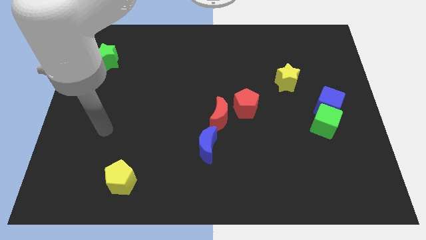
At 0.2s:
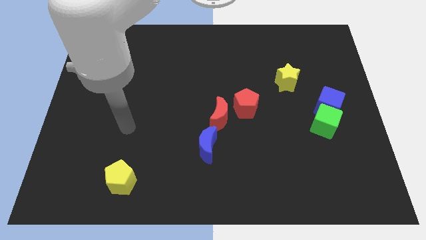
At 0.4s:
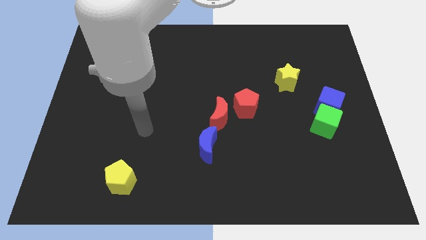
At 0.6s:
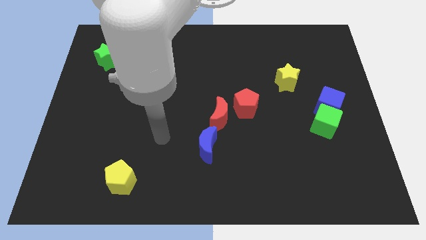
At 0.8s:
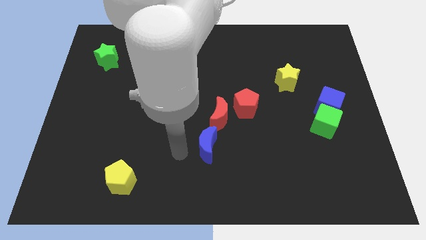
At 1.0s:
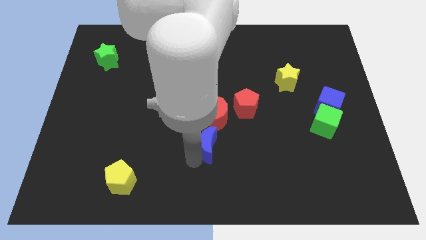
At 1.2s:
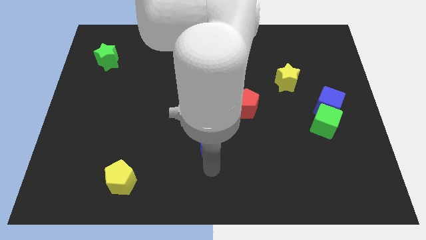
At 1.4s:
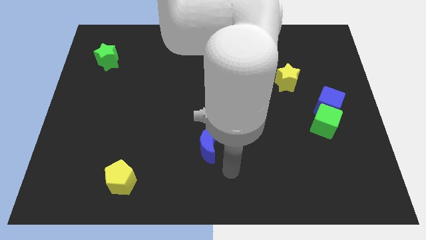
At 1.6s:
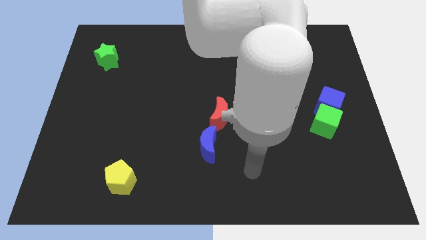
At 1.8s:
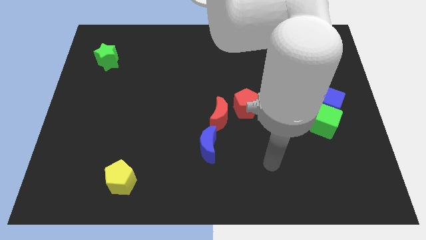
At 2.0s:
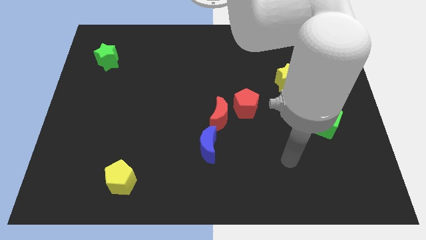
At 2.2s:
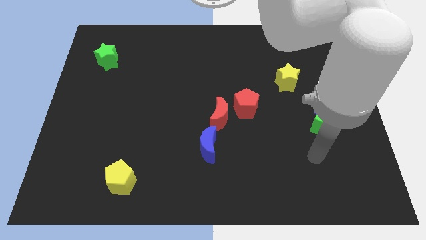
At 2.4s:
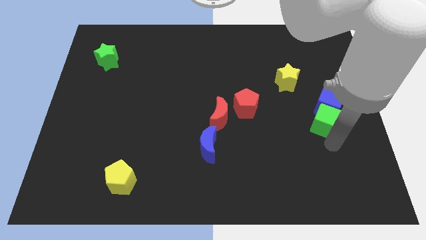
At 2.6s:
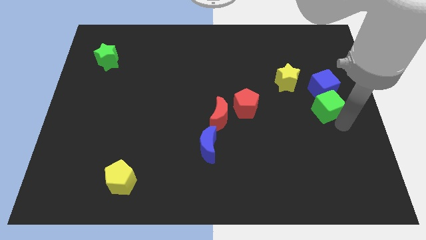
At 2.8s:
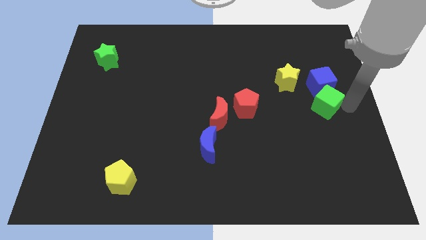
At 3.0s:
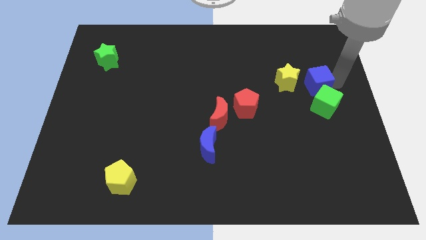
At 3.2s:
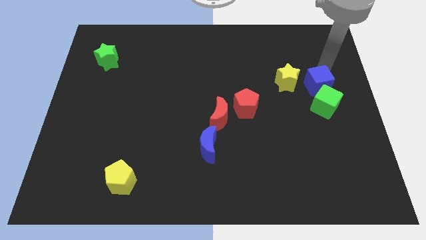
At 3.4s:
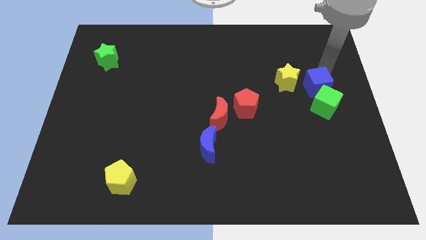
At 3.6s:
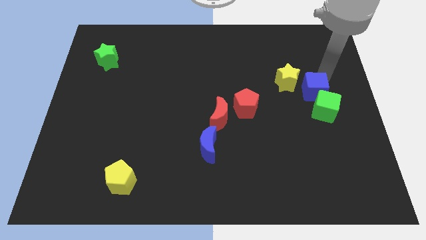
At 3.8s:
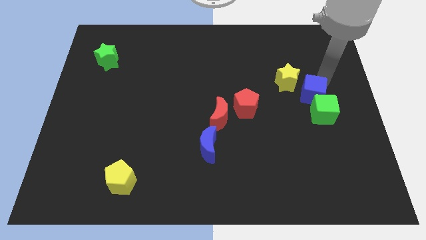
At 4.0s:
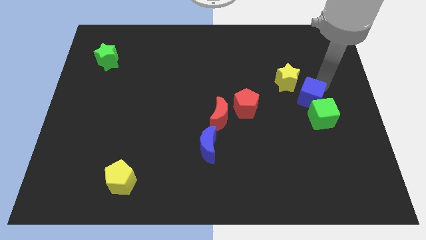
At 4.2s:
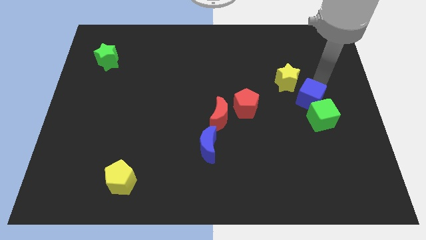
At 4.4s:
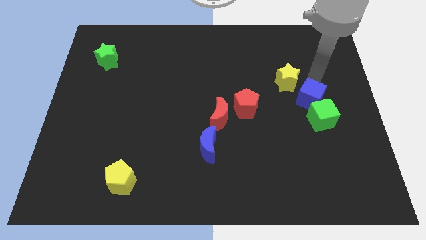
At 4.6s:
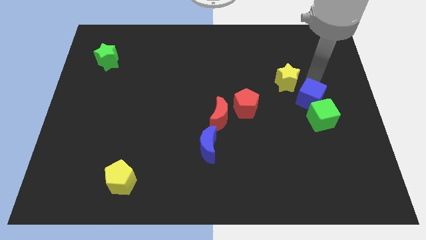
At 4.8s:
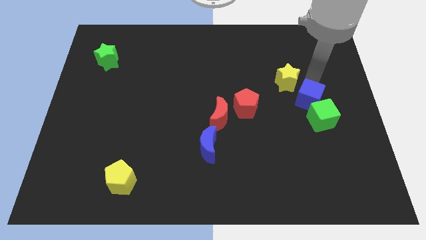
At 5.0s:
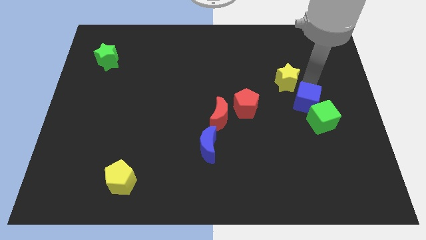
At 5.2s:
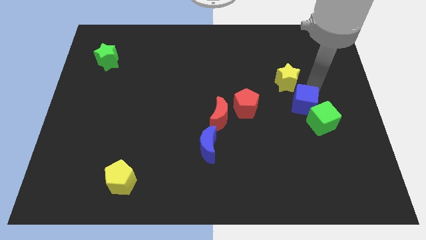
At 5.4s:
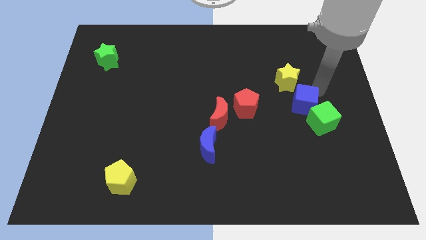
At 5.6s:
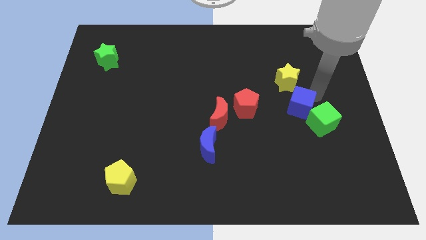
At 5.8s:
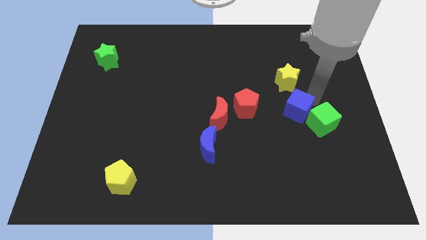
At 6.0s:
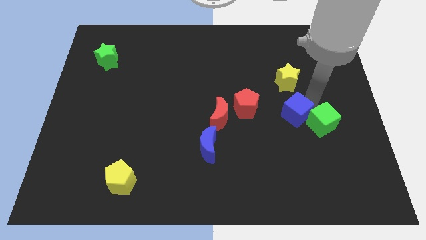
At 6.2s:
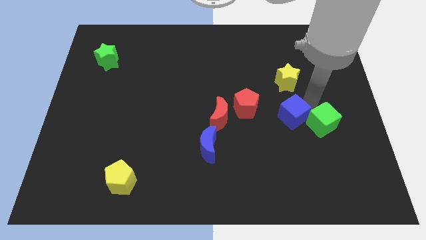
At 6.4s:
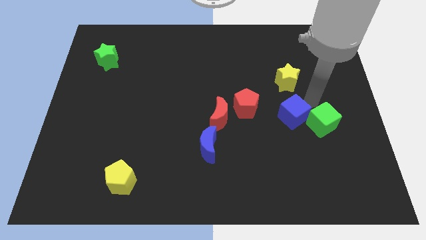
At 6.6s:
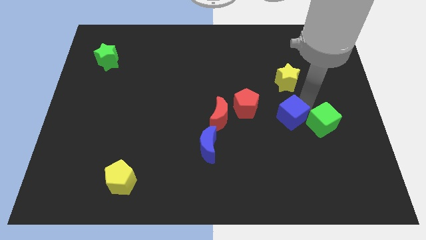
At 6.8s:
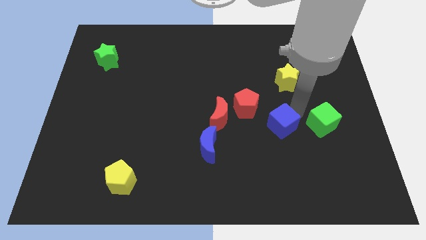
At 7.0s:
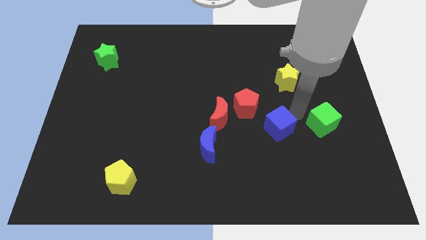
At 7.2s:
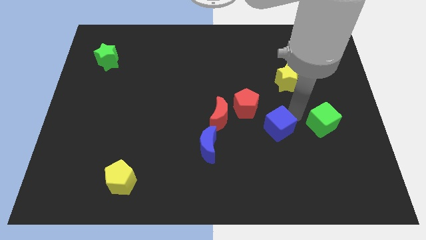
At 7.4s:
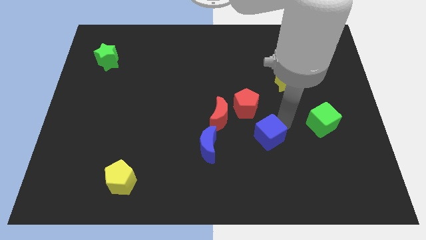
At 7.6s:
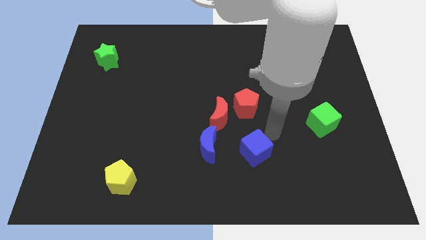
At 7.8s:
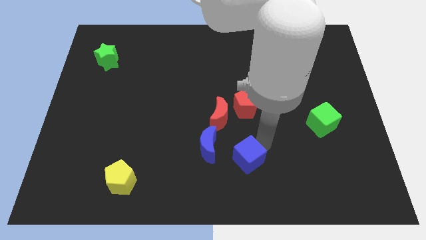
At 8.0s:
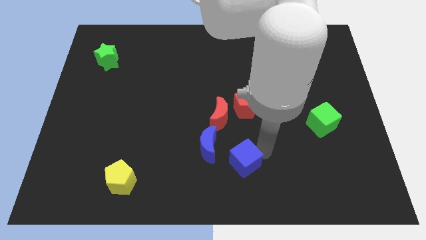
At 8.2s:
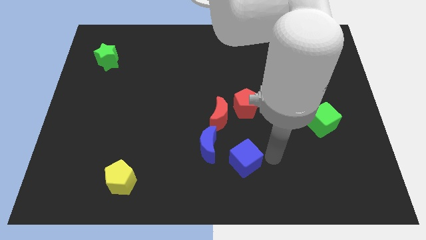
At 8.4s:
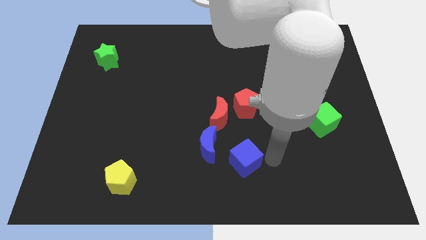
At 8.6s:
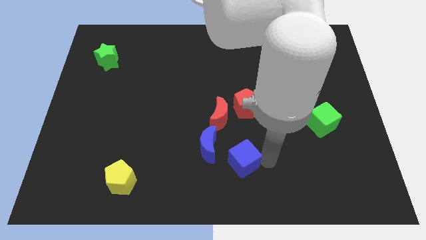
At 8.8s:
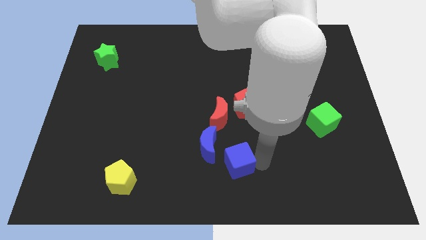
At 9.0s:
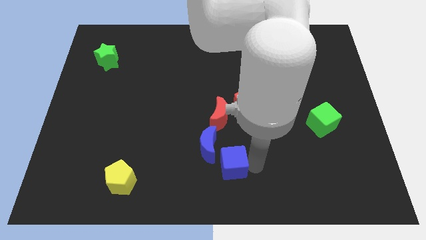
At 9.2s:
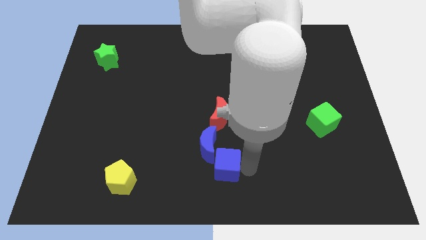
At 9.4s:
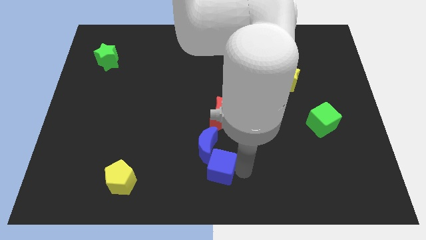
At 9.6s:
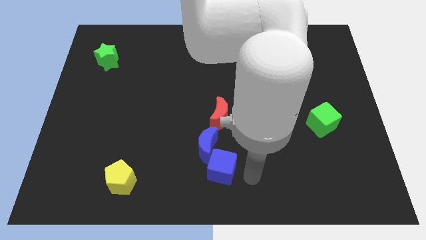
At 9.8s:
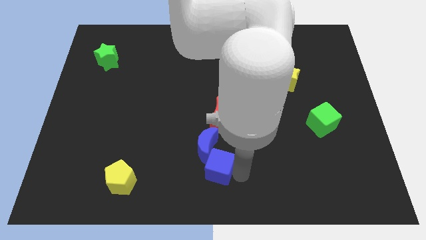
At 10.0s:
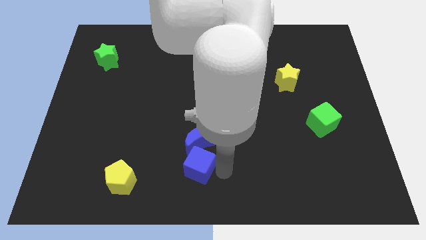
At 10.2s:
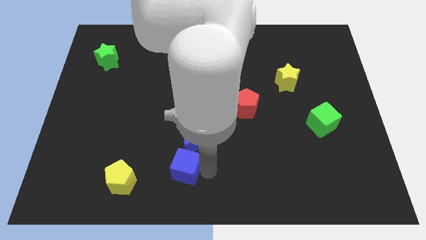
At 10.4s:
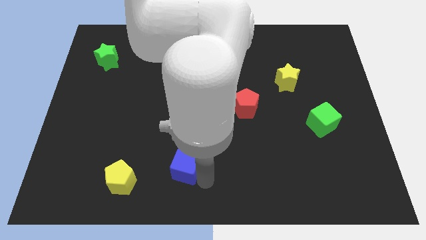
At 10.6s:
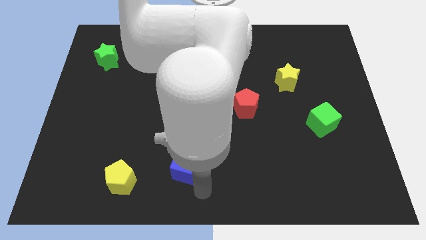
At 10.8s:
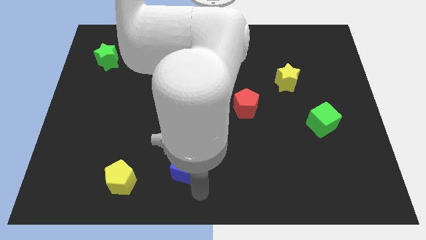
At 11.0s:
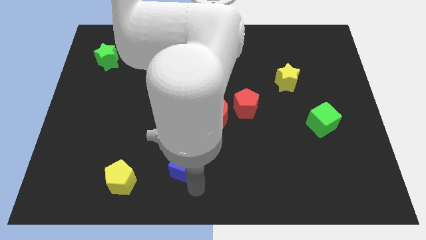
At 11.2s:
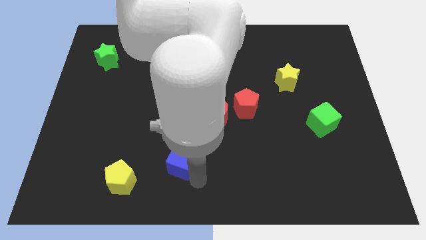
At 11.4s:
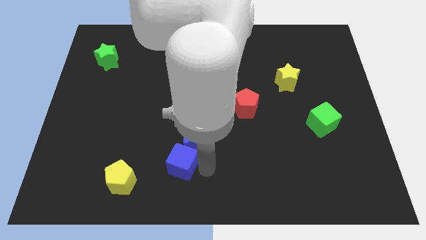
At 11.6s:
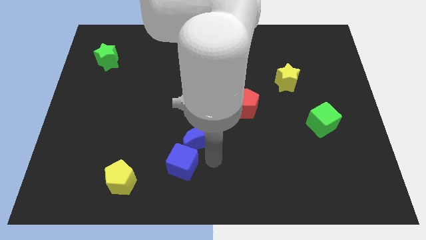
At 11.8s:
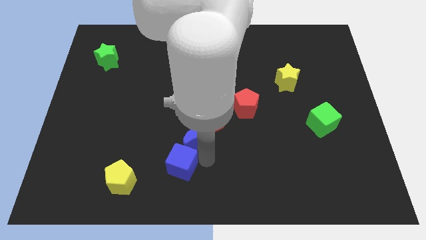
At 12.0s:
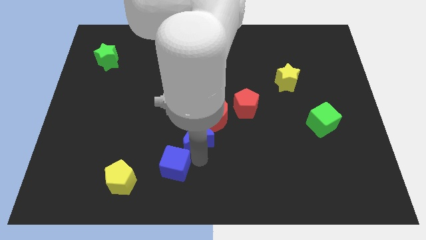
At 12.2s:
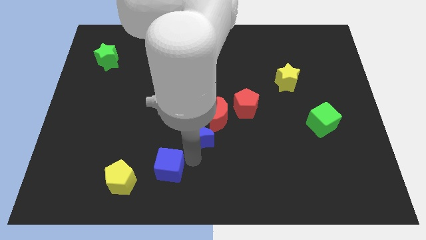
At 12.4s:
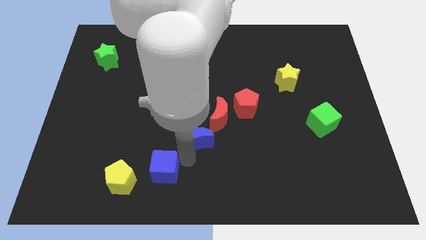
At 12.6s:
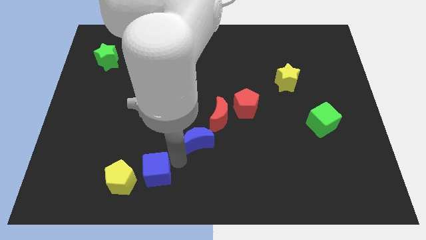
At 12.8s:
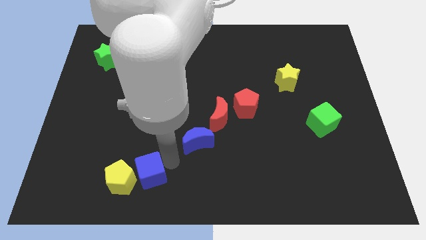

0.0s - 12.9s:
slide the blue cube next to the yellow pentagon
